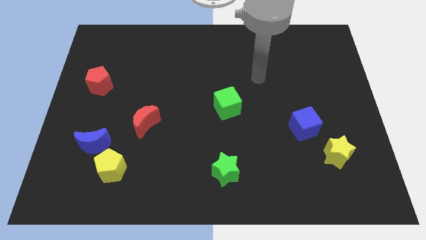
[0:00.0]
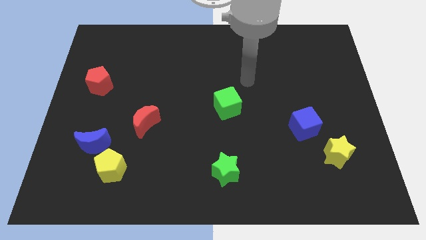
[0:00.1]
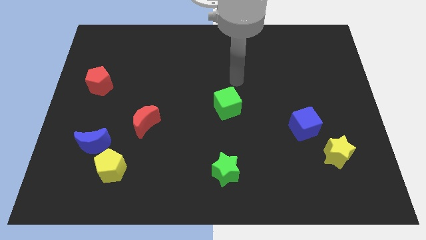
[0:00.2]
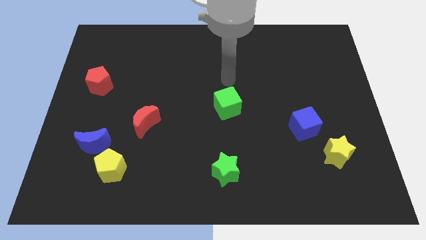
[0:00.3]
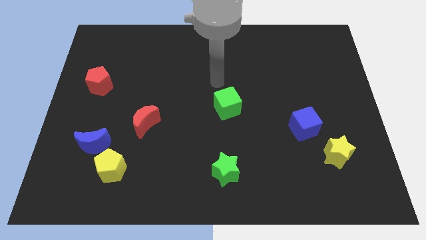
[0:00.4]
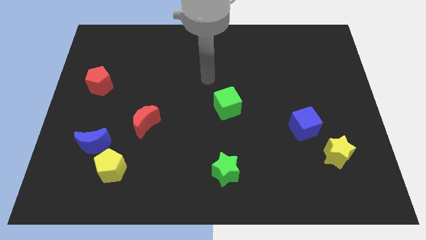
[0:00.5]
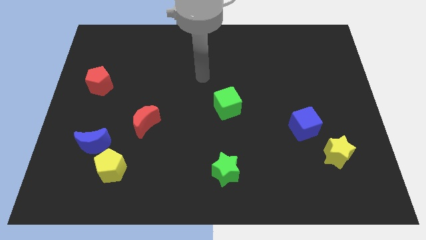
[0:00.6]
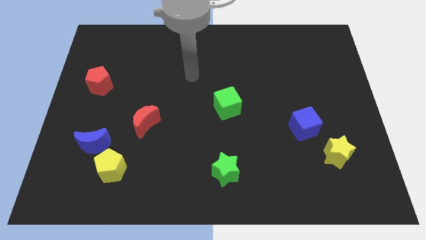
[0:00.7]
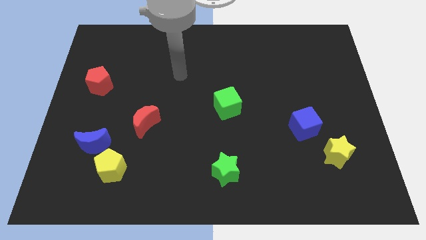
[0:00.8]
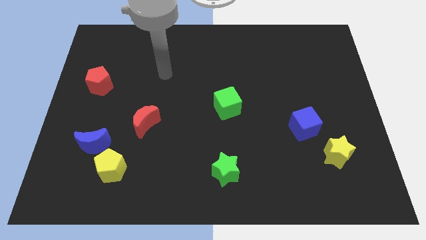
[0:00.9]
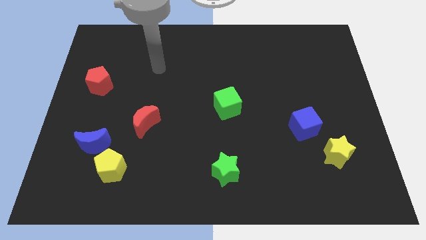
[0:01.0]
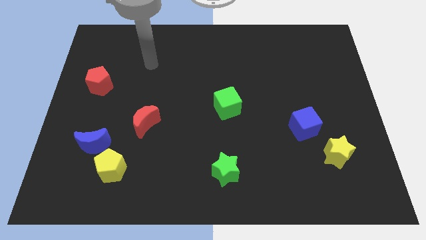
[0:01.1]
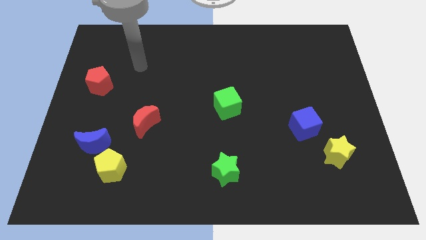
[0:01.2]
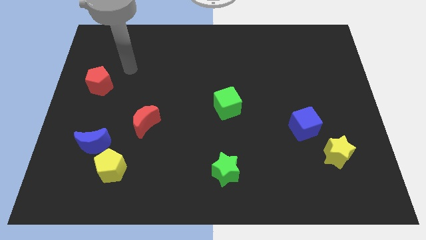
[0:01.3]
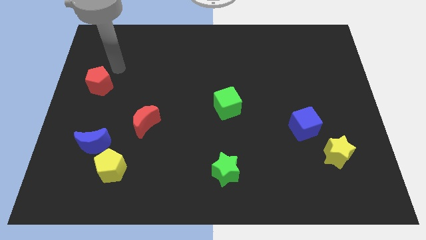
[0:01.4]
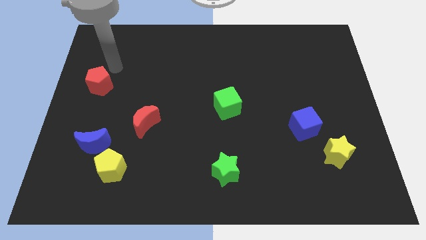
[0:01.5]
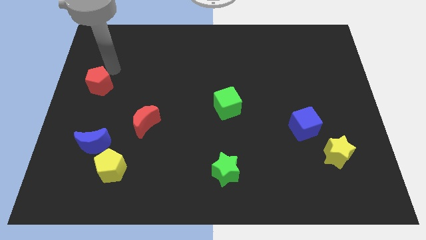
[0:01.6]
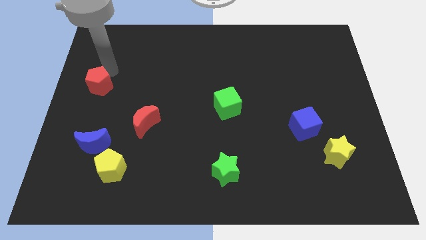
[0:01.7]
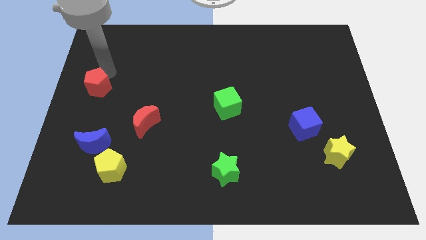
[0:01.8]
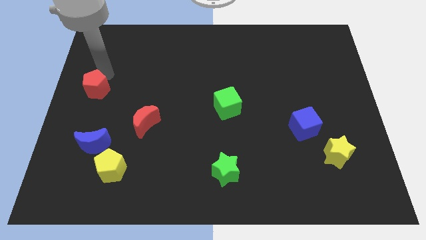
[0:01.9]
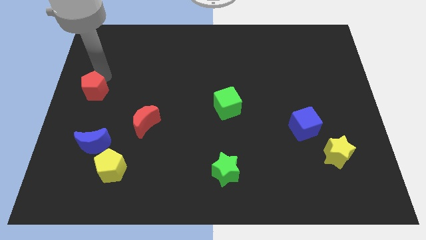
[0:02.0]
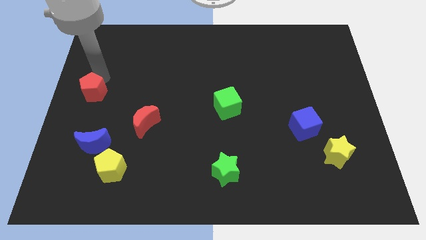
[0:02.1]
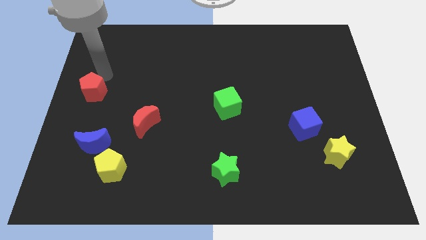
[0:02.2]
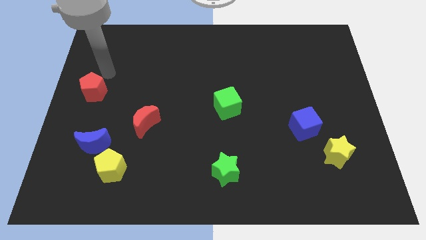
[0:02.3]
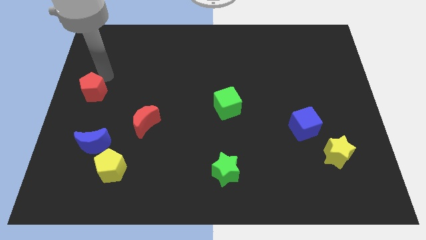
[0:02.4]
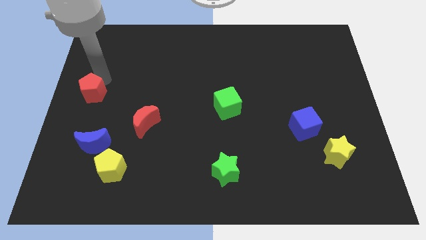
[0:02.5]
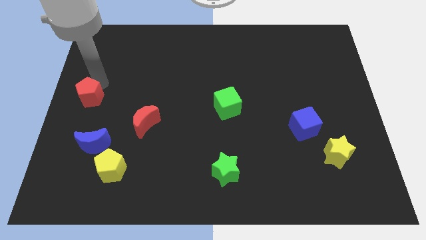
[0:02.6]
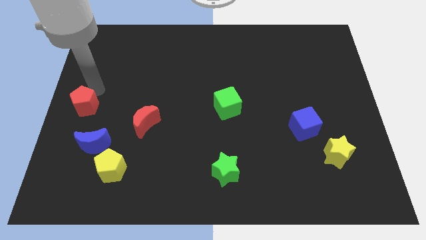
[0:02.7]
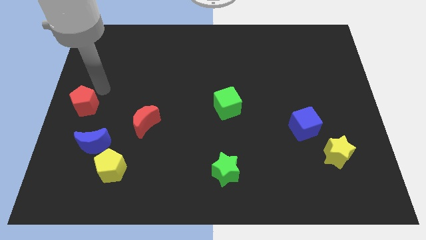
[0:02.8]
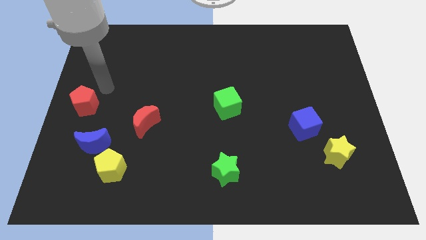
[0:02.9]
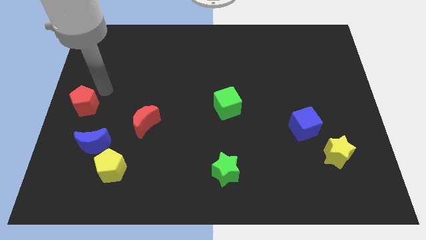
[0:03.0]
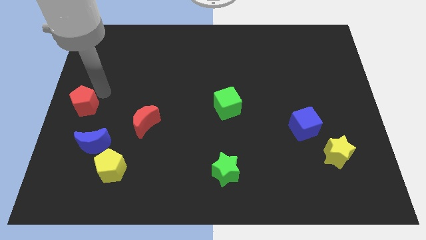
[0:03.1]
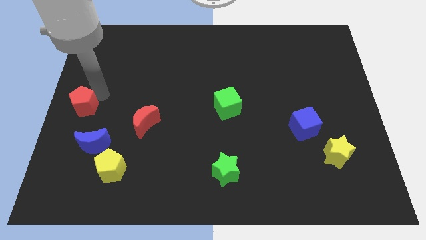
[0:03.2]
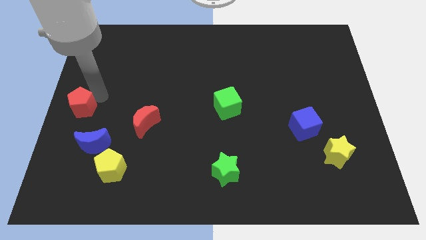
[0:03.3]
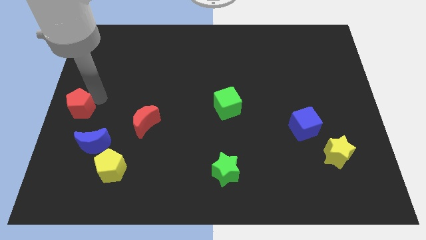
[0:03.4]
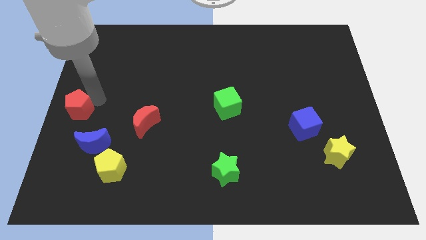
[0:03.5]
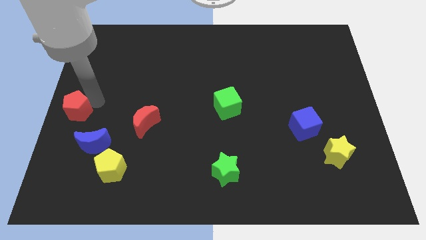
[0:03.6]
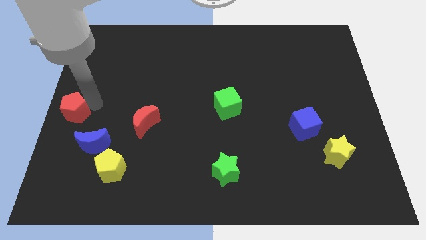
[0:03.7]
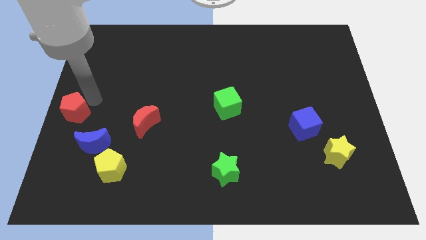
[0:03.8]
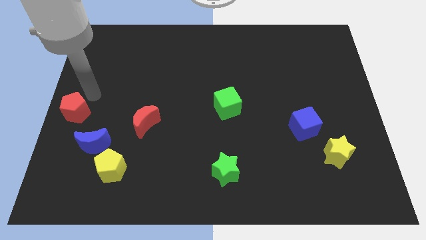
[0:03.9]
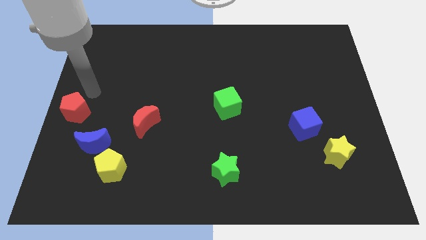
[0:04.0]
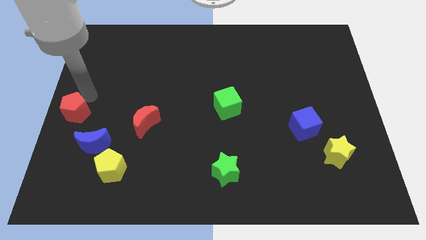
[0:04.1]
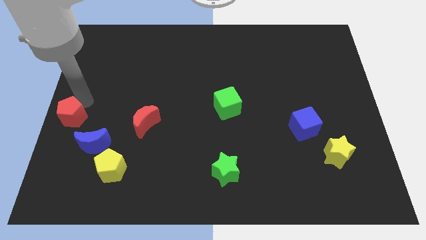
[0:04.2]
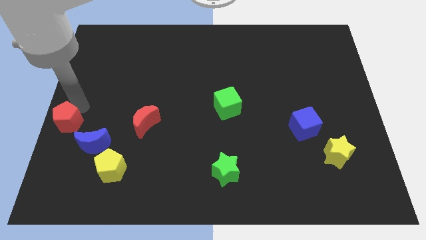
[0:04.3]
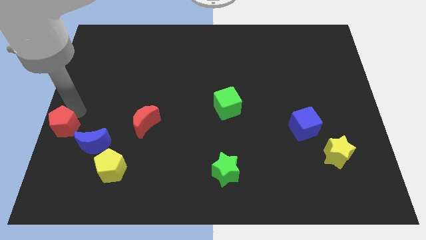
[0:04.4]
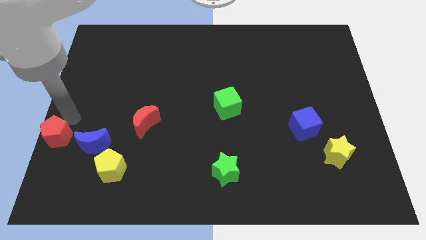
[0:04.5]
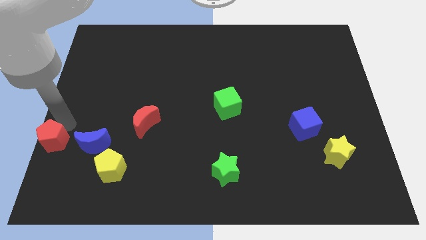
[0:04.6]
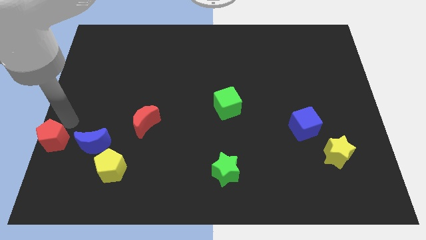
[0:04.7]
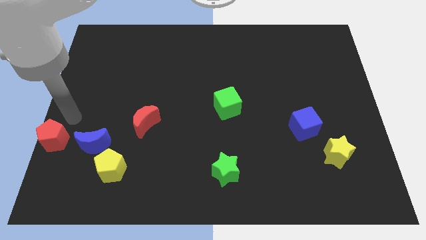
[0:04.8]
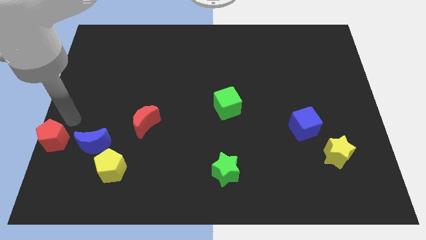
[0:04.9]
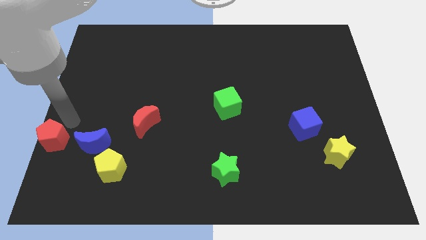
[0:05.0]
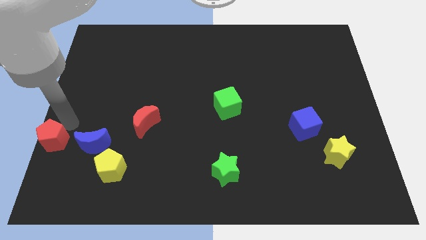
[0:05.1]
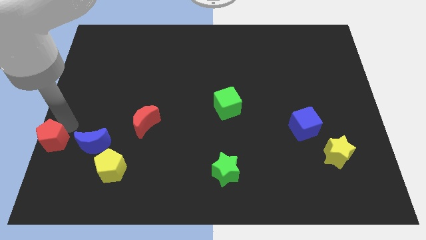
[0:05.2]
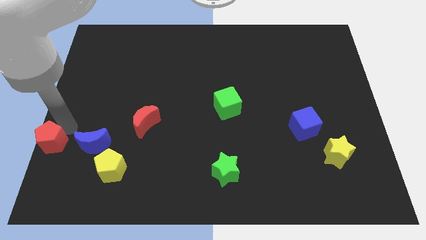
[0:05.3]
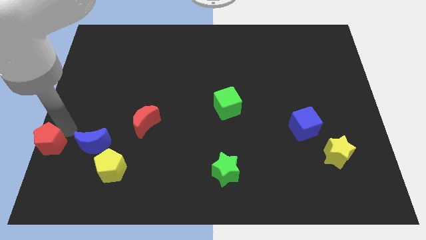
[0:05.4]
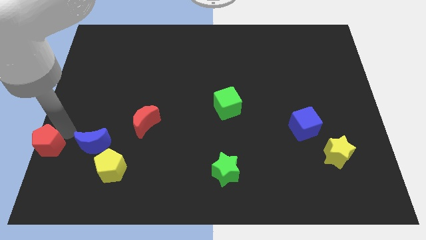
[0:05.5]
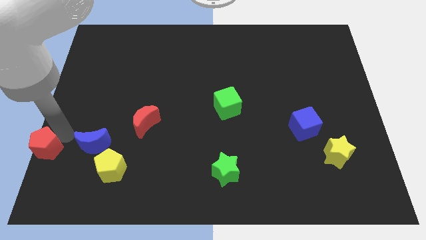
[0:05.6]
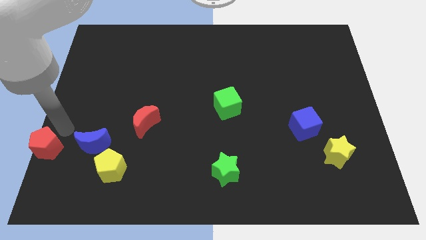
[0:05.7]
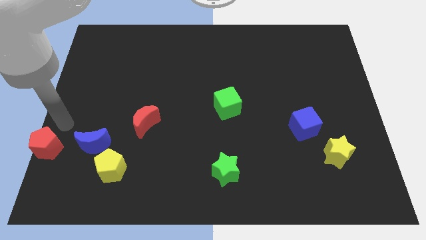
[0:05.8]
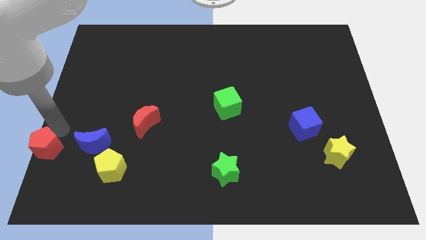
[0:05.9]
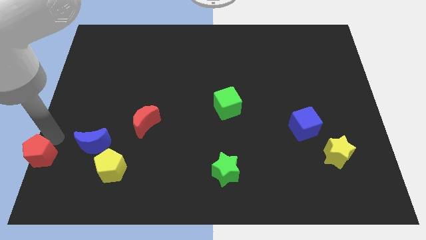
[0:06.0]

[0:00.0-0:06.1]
put the red pentagon to the bottom left of the board

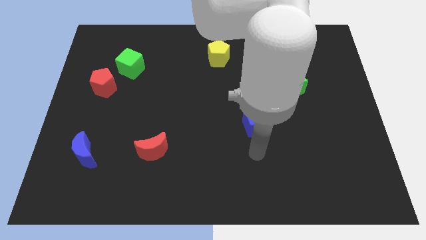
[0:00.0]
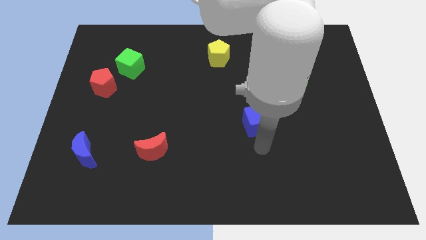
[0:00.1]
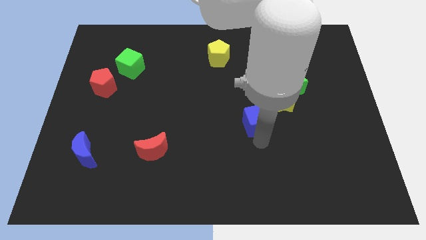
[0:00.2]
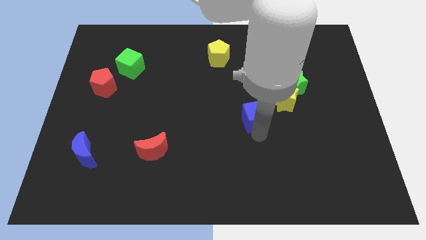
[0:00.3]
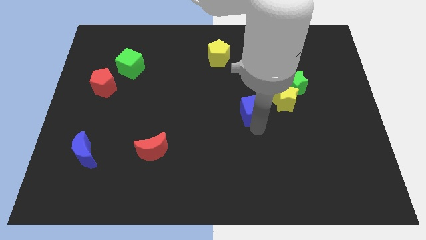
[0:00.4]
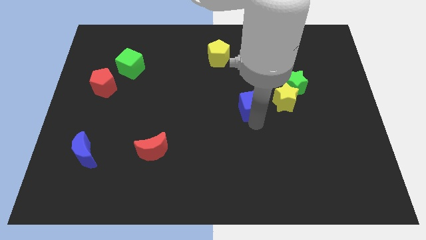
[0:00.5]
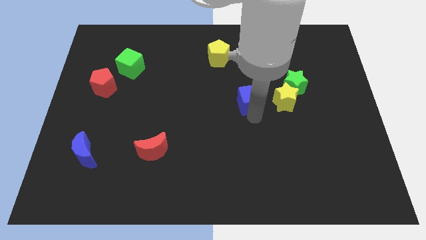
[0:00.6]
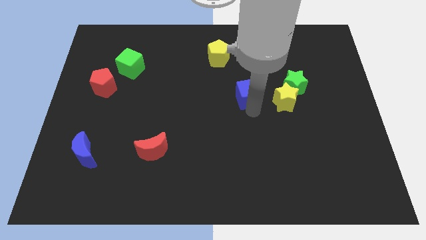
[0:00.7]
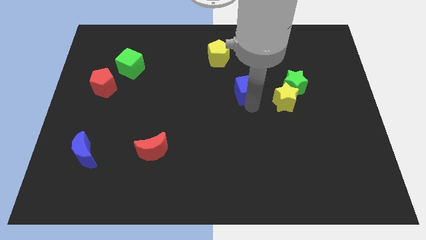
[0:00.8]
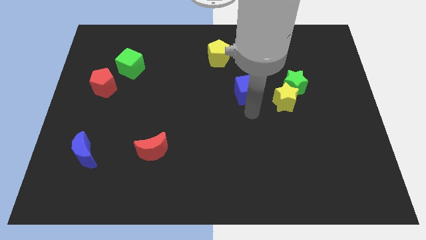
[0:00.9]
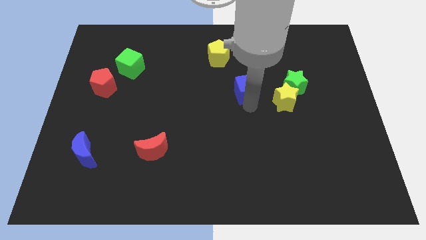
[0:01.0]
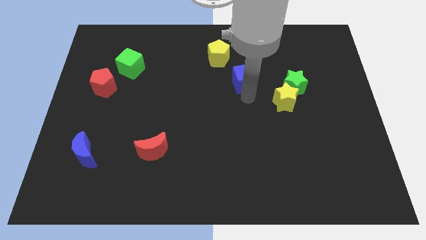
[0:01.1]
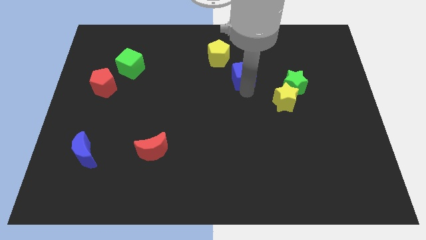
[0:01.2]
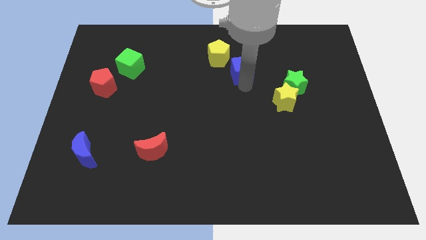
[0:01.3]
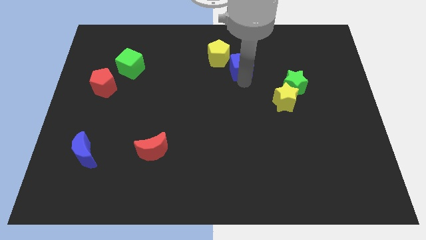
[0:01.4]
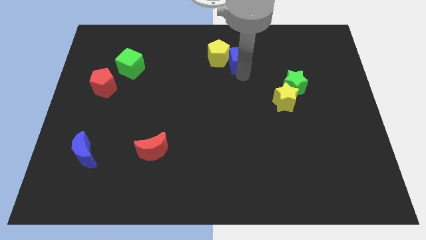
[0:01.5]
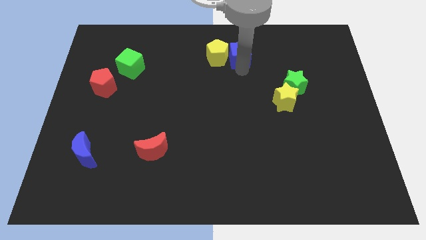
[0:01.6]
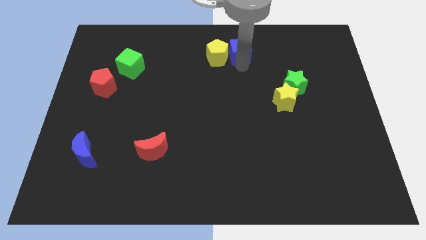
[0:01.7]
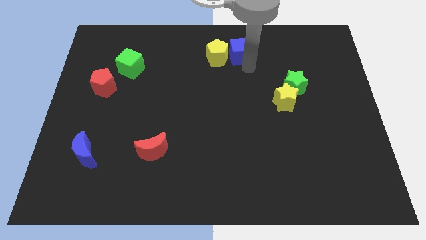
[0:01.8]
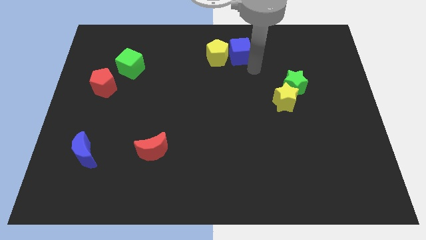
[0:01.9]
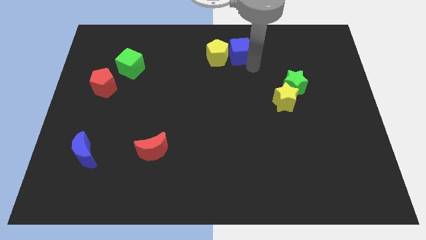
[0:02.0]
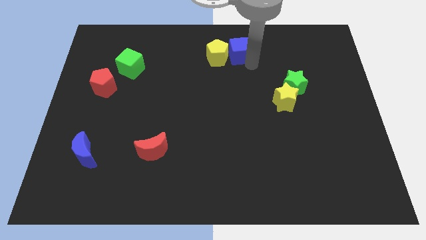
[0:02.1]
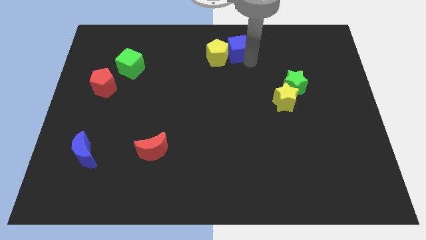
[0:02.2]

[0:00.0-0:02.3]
slide the blue cube to the top side
